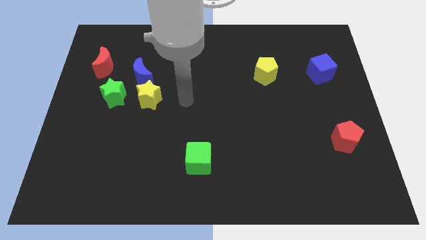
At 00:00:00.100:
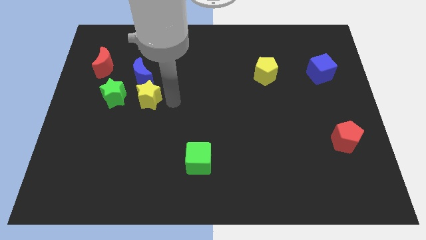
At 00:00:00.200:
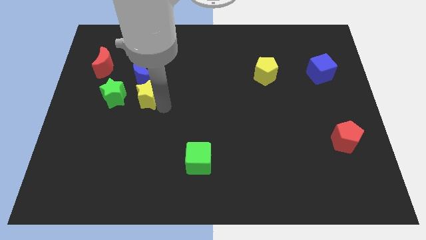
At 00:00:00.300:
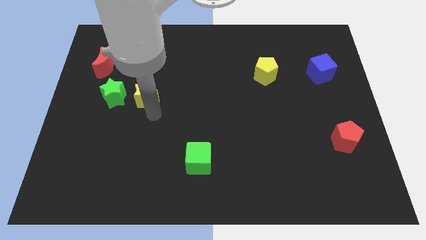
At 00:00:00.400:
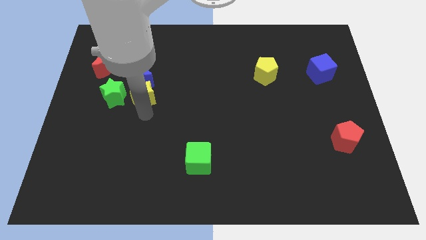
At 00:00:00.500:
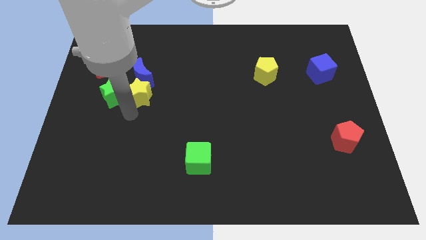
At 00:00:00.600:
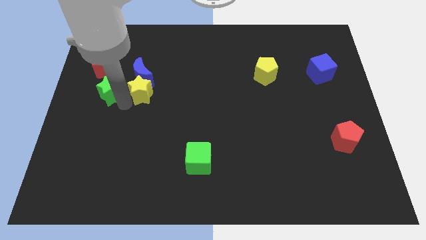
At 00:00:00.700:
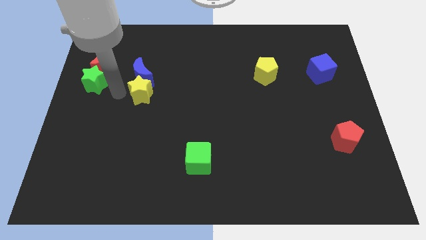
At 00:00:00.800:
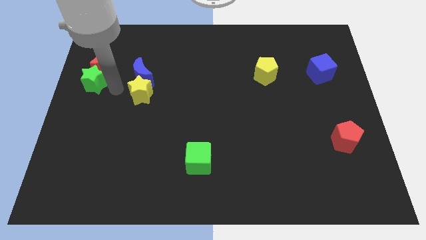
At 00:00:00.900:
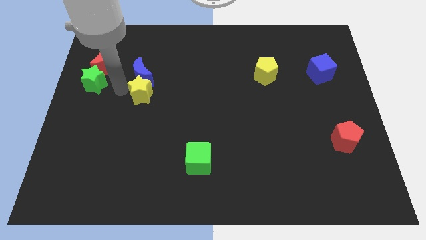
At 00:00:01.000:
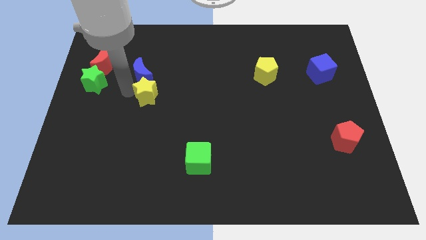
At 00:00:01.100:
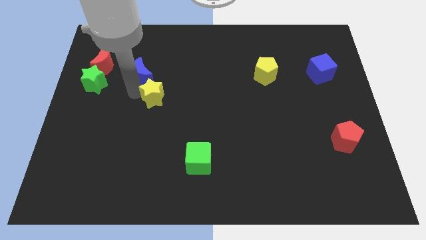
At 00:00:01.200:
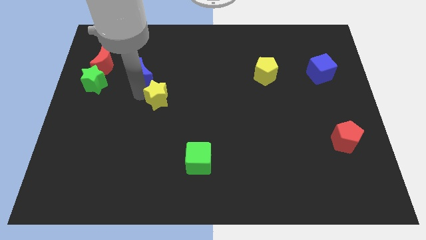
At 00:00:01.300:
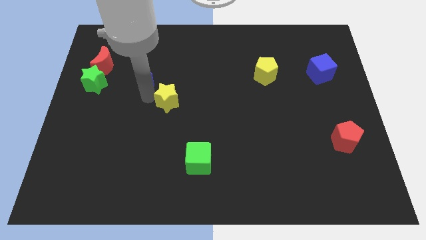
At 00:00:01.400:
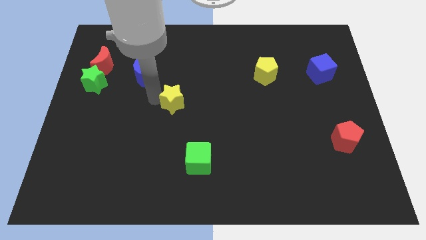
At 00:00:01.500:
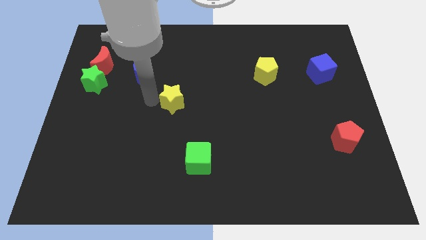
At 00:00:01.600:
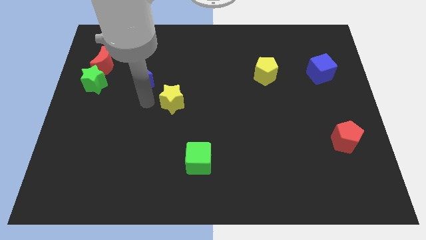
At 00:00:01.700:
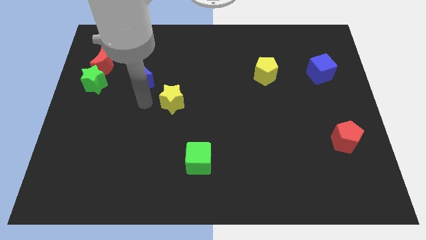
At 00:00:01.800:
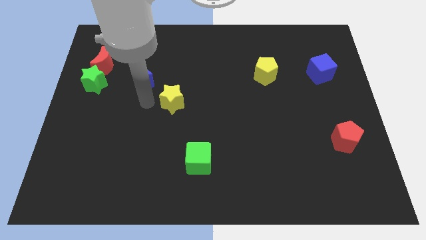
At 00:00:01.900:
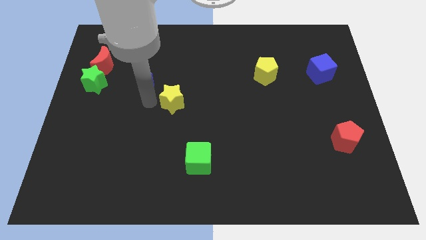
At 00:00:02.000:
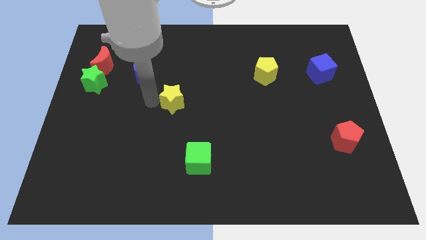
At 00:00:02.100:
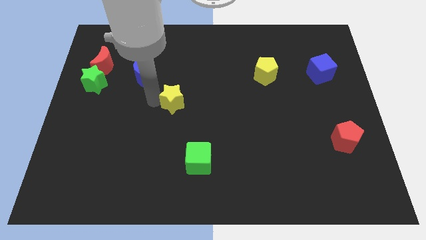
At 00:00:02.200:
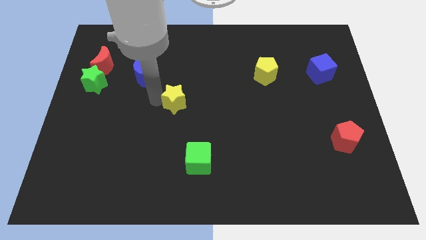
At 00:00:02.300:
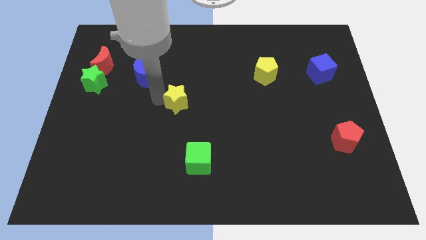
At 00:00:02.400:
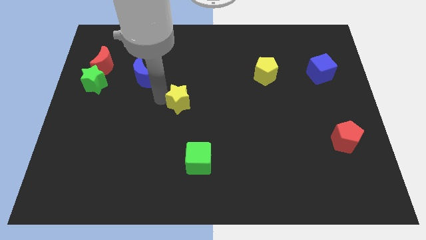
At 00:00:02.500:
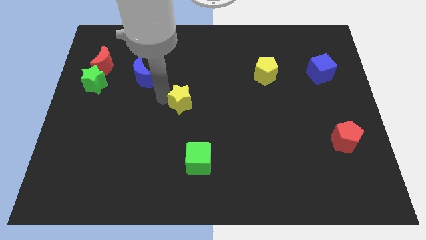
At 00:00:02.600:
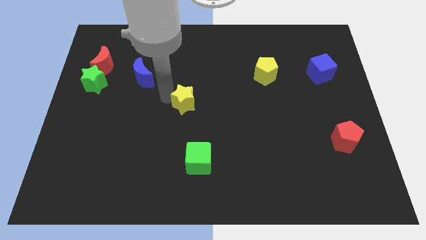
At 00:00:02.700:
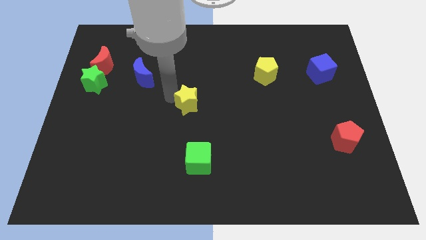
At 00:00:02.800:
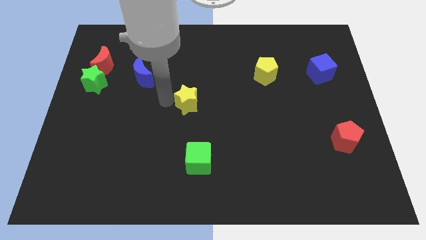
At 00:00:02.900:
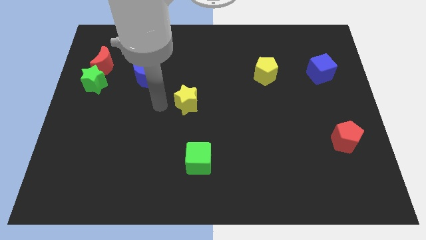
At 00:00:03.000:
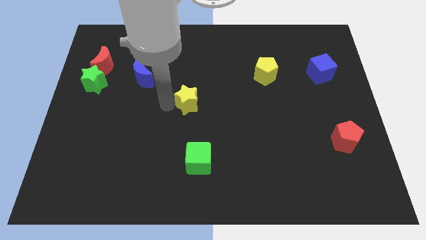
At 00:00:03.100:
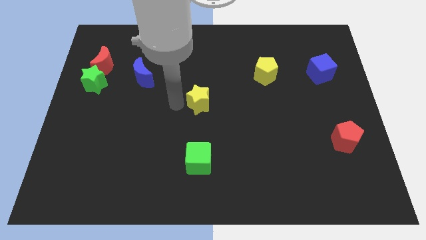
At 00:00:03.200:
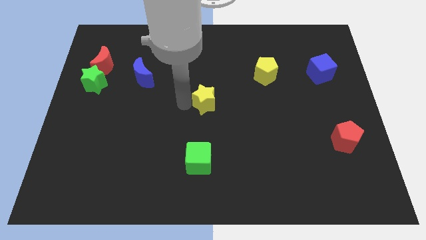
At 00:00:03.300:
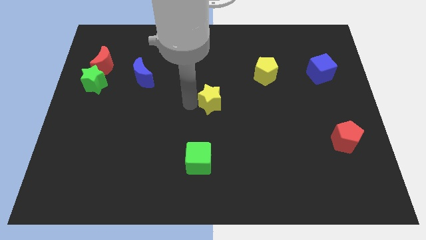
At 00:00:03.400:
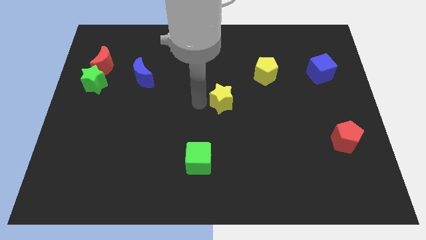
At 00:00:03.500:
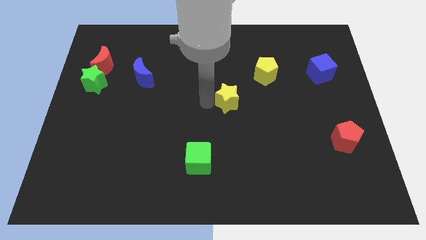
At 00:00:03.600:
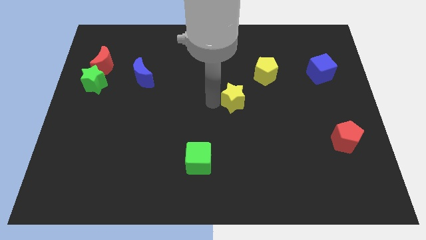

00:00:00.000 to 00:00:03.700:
slide the yellow star to the right

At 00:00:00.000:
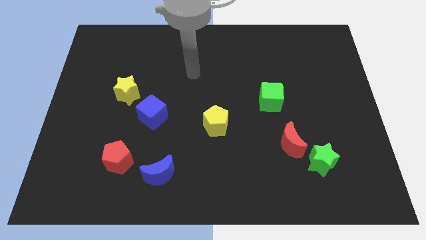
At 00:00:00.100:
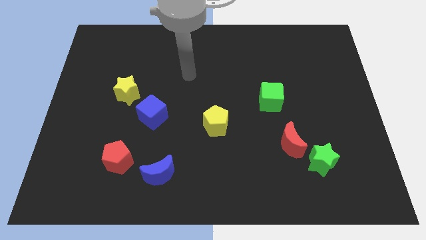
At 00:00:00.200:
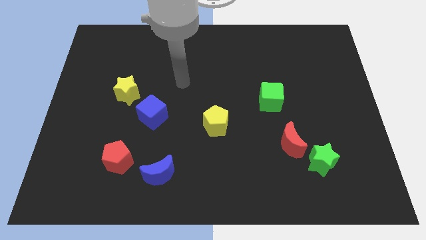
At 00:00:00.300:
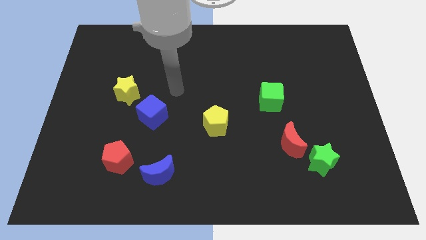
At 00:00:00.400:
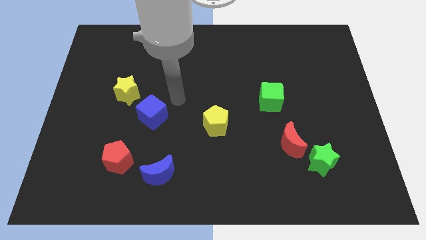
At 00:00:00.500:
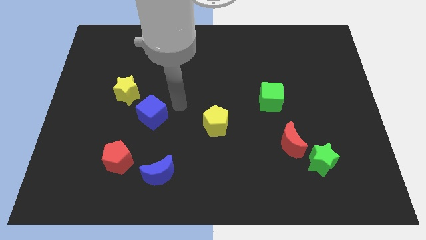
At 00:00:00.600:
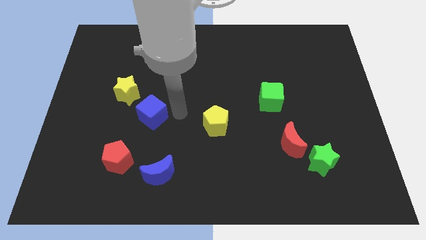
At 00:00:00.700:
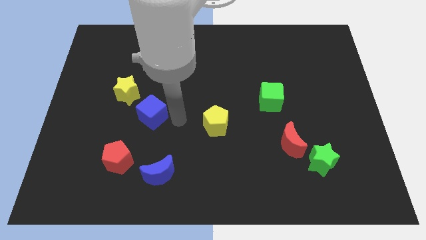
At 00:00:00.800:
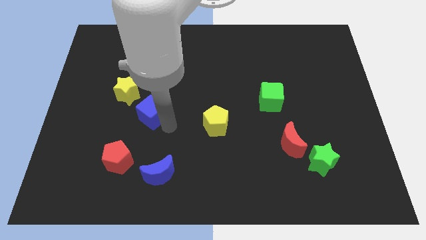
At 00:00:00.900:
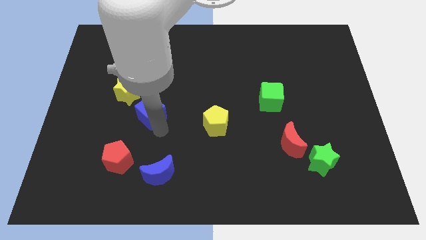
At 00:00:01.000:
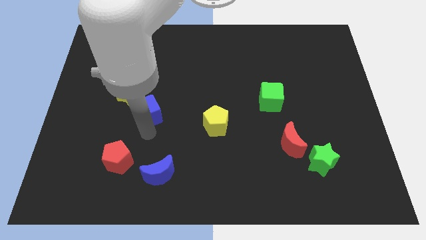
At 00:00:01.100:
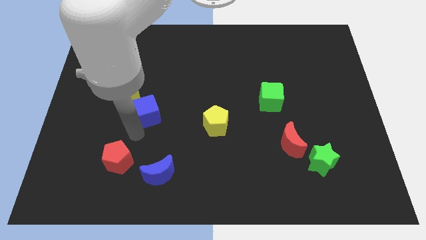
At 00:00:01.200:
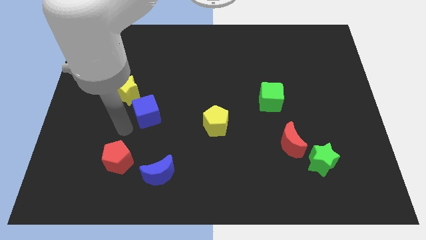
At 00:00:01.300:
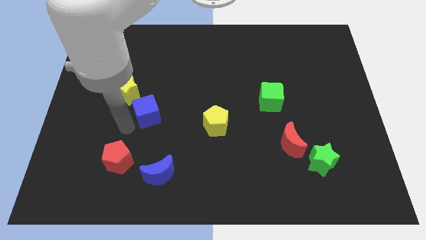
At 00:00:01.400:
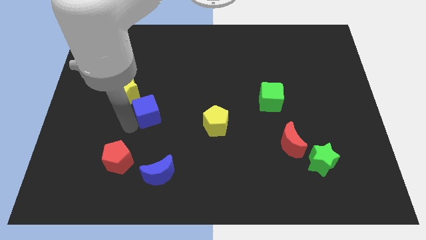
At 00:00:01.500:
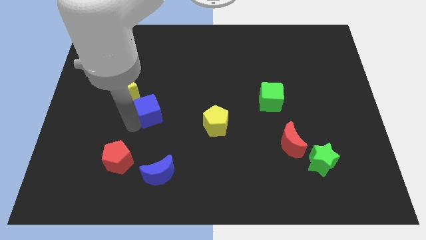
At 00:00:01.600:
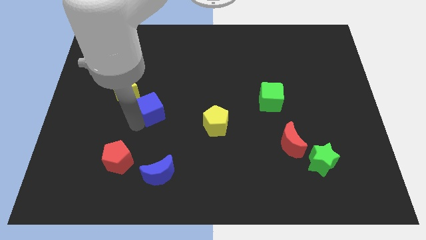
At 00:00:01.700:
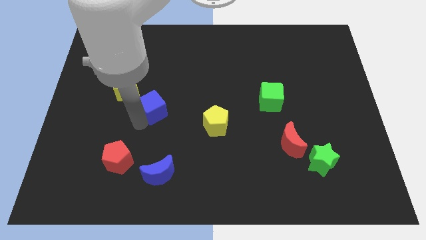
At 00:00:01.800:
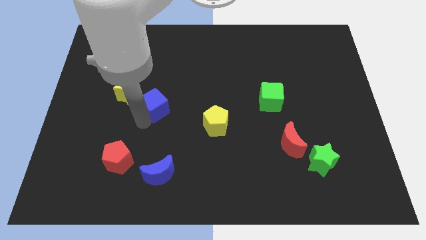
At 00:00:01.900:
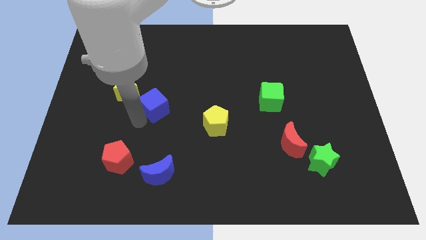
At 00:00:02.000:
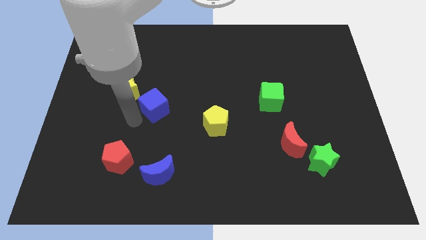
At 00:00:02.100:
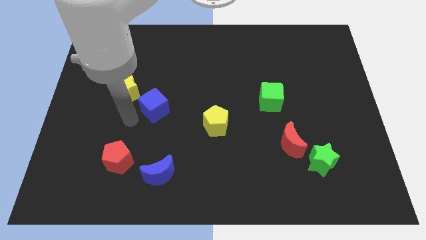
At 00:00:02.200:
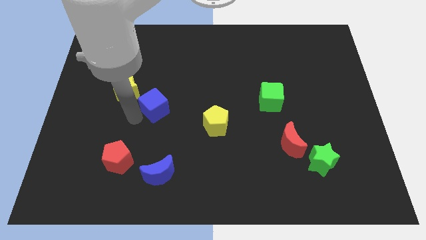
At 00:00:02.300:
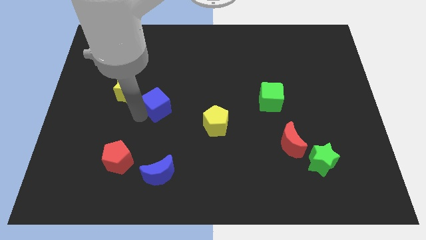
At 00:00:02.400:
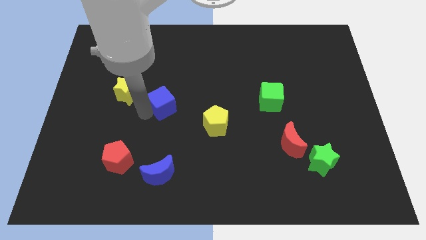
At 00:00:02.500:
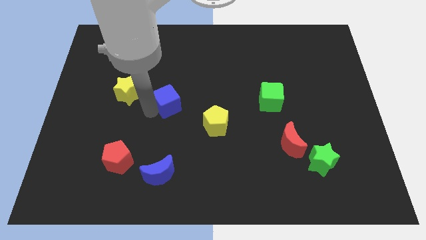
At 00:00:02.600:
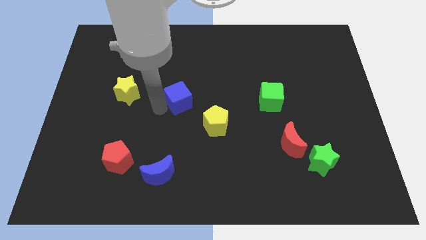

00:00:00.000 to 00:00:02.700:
slide the blue cube upwards and to the right diagonally a little

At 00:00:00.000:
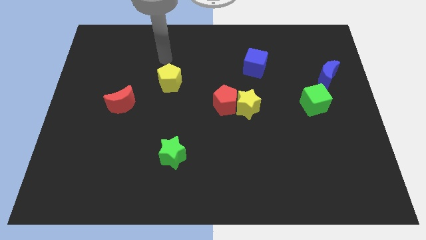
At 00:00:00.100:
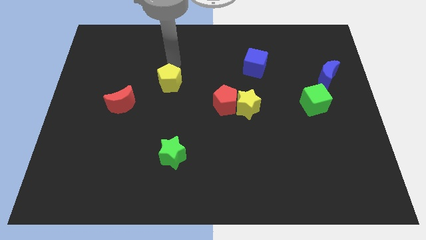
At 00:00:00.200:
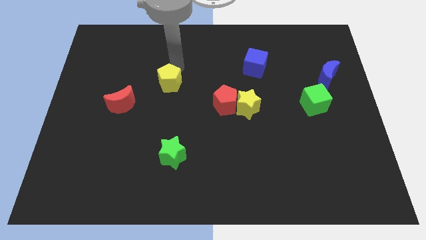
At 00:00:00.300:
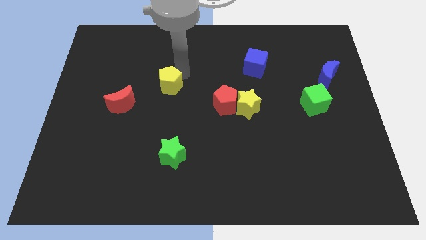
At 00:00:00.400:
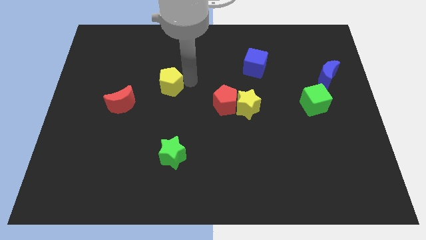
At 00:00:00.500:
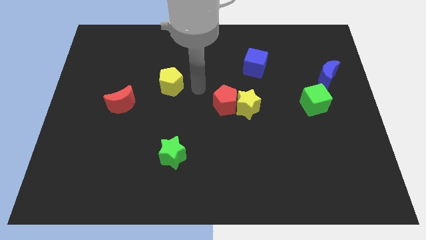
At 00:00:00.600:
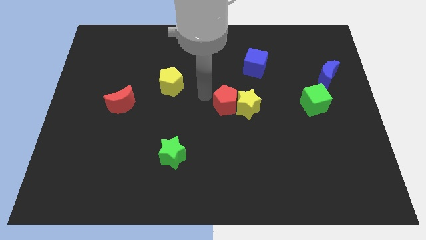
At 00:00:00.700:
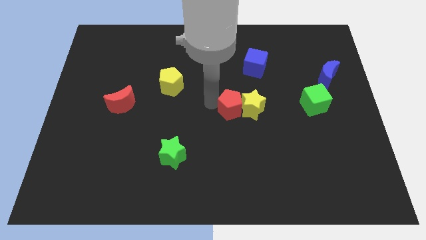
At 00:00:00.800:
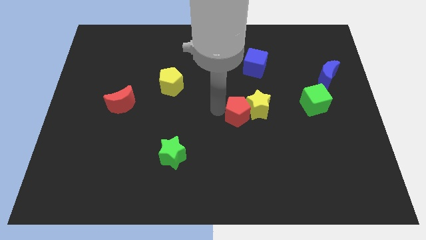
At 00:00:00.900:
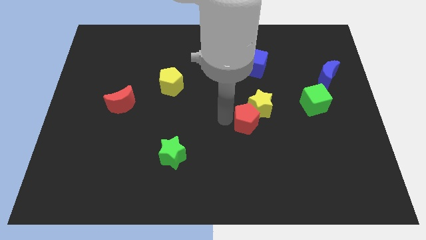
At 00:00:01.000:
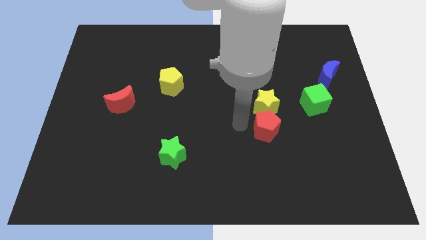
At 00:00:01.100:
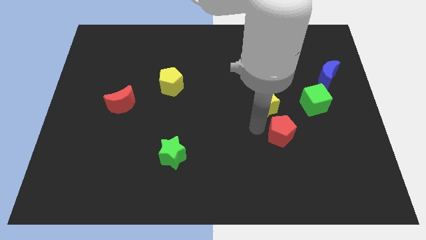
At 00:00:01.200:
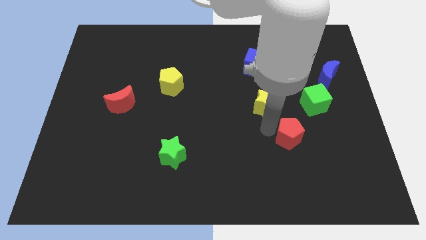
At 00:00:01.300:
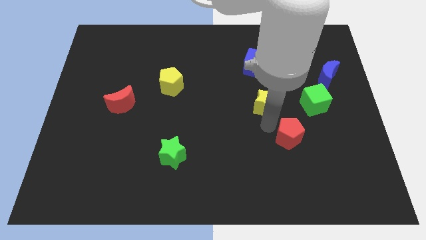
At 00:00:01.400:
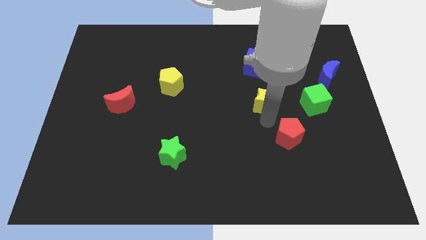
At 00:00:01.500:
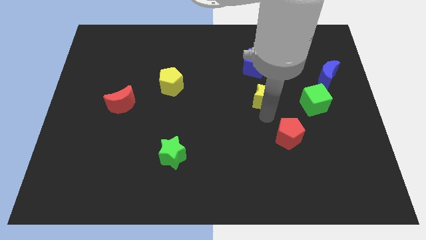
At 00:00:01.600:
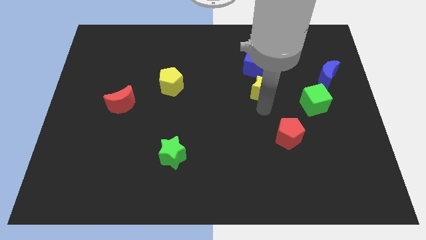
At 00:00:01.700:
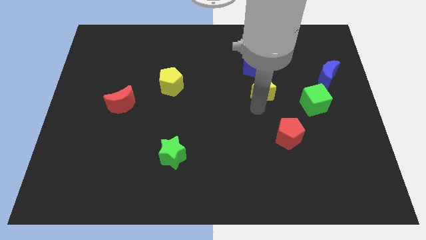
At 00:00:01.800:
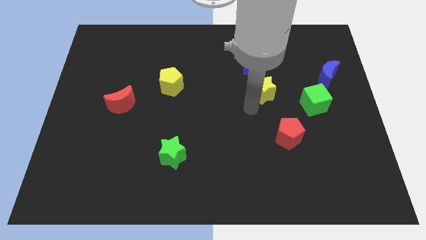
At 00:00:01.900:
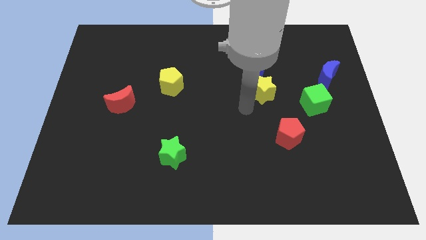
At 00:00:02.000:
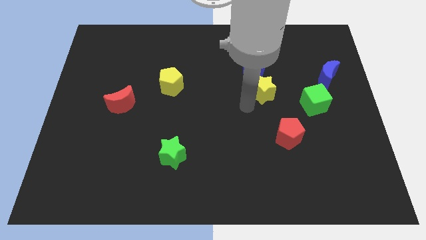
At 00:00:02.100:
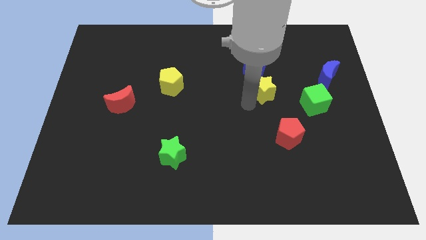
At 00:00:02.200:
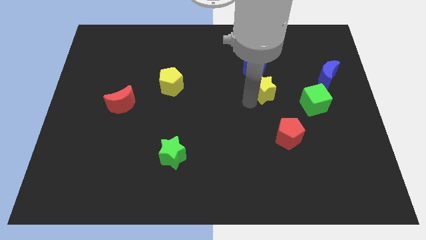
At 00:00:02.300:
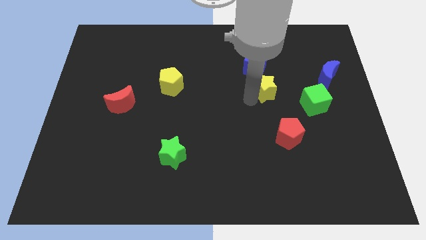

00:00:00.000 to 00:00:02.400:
slide the yellow star up and right a little
